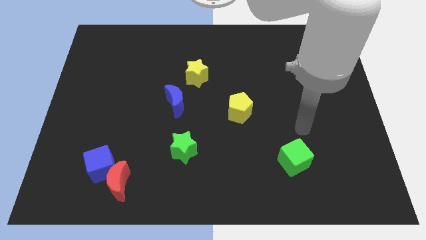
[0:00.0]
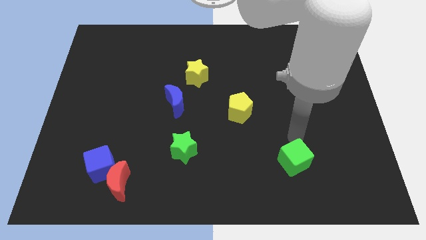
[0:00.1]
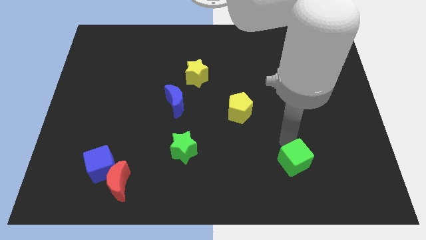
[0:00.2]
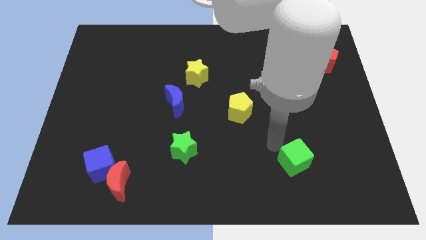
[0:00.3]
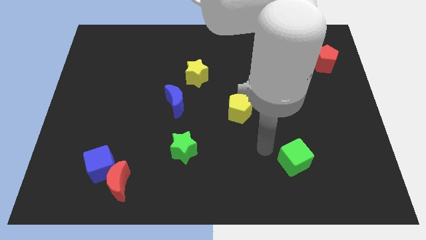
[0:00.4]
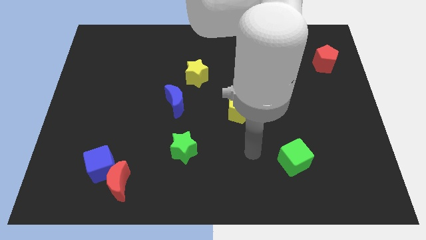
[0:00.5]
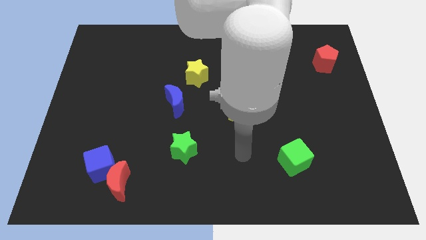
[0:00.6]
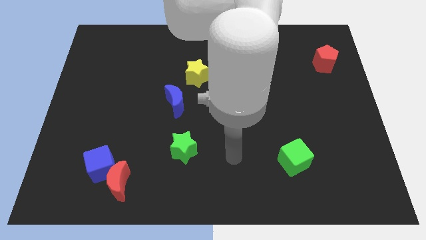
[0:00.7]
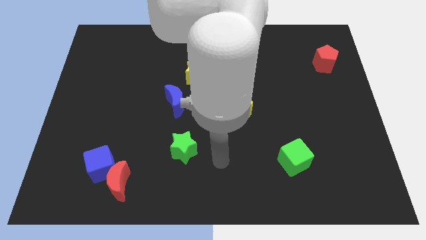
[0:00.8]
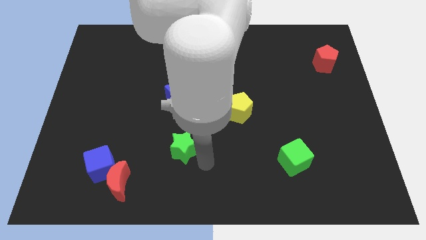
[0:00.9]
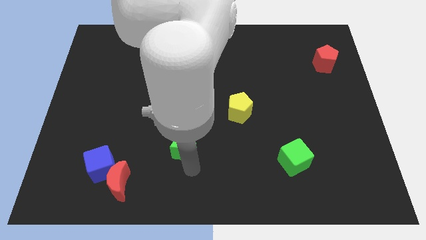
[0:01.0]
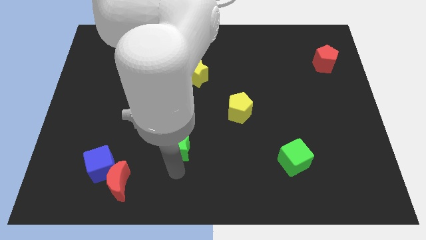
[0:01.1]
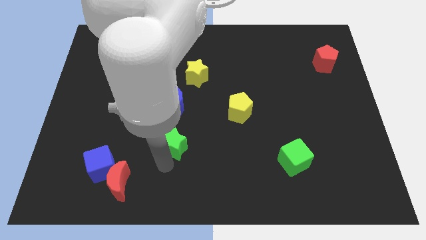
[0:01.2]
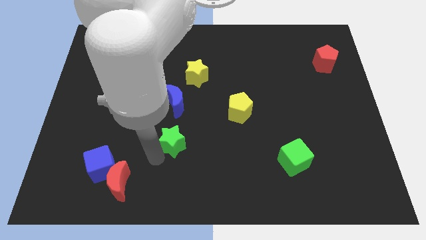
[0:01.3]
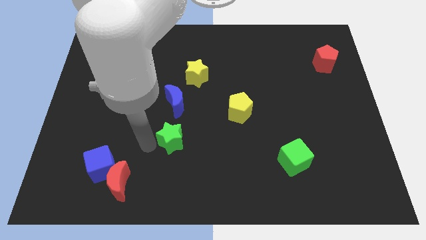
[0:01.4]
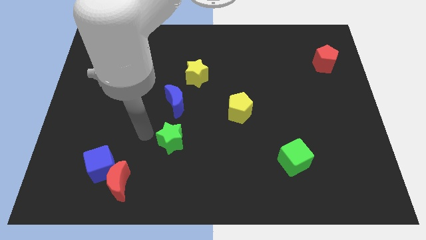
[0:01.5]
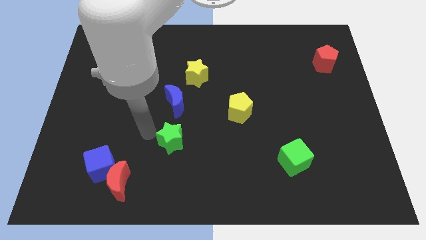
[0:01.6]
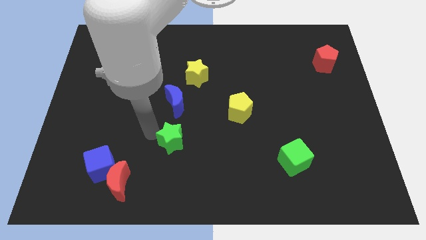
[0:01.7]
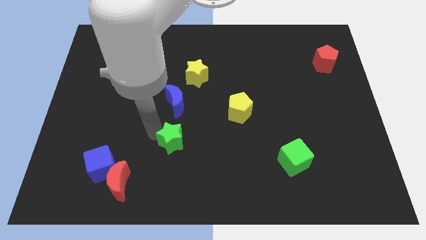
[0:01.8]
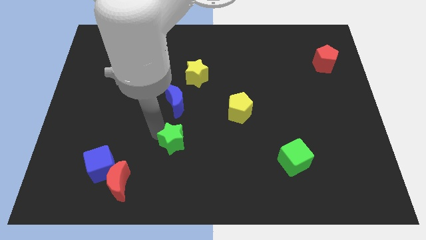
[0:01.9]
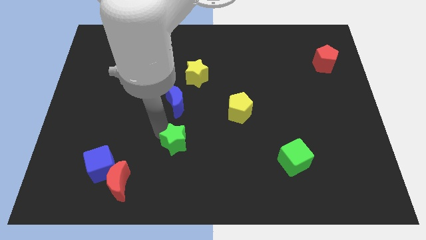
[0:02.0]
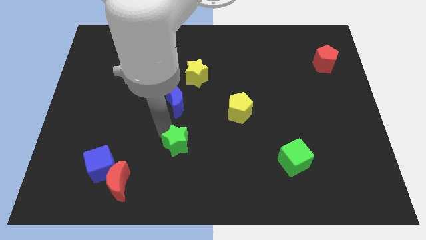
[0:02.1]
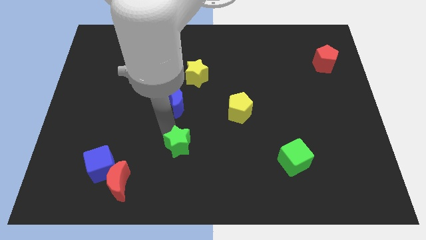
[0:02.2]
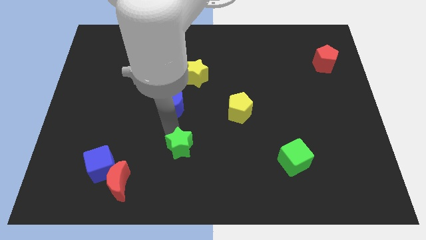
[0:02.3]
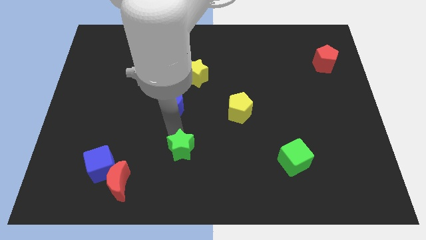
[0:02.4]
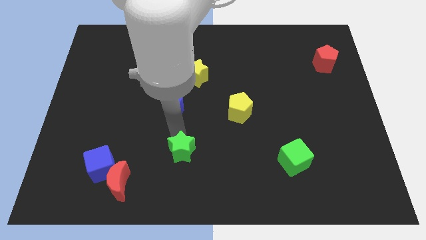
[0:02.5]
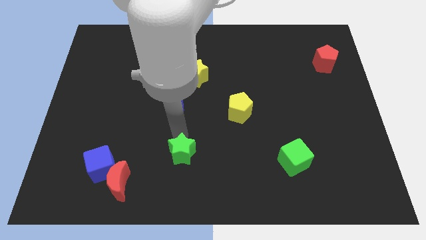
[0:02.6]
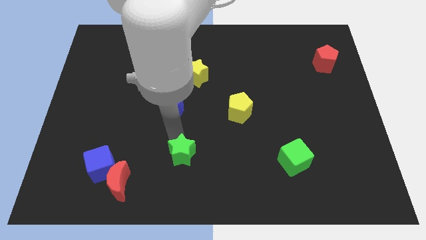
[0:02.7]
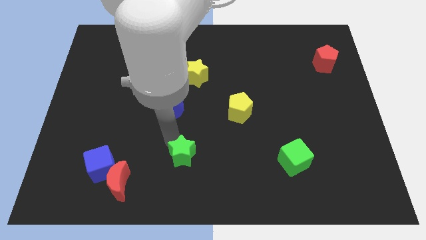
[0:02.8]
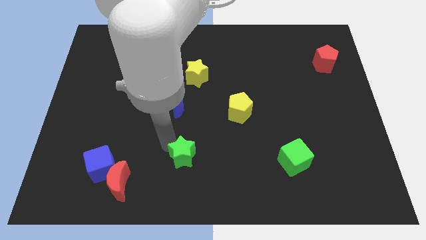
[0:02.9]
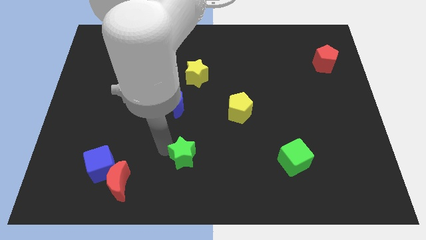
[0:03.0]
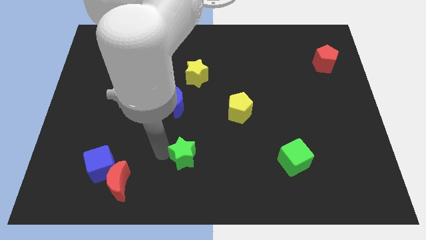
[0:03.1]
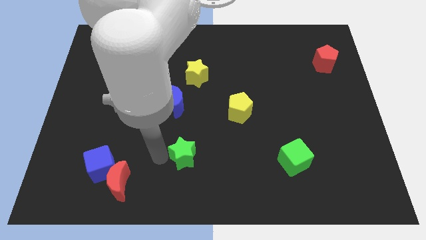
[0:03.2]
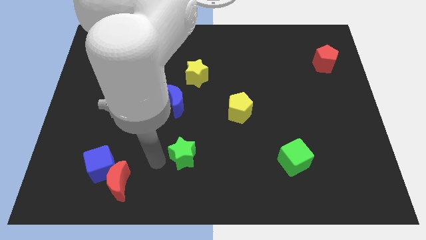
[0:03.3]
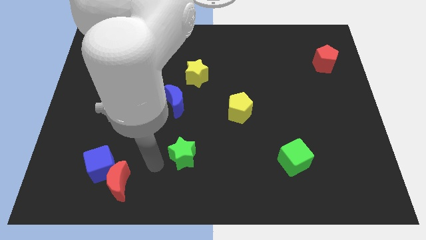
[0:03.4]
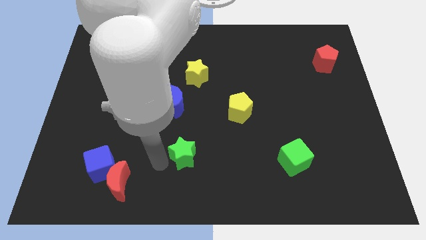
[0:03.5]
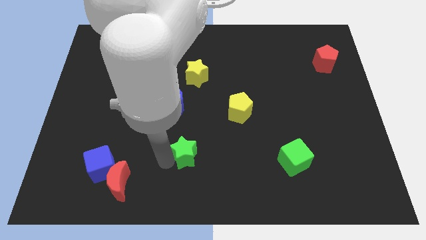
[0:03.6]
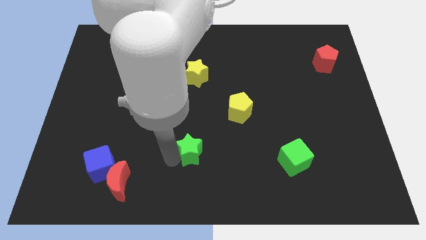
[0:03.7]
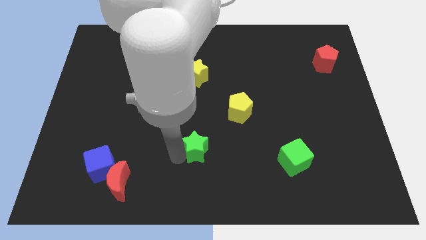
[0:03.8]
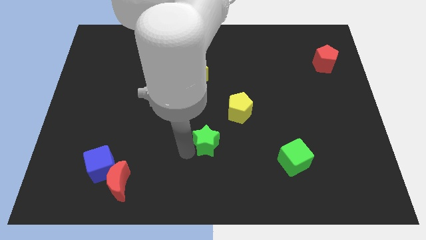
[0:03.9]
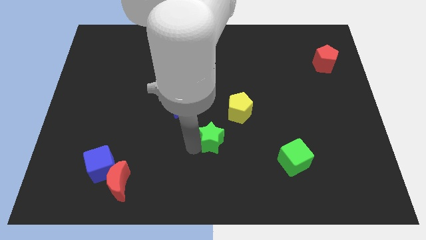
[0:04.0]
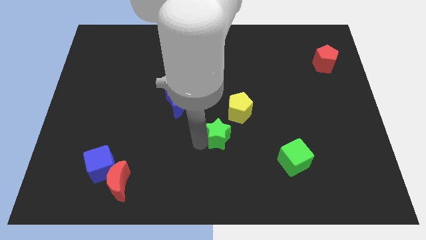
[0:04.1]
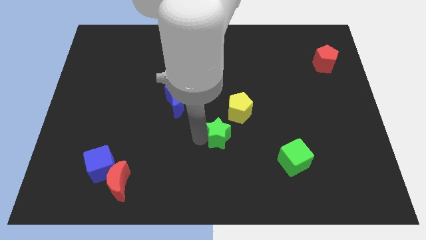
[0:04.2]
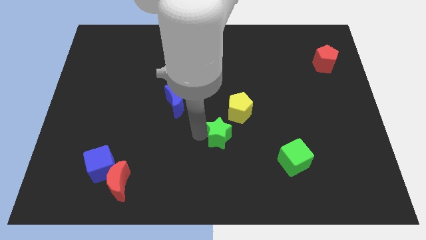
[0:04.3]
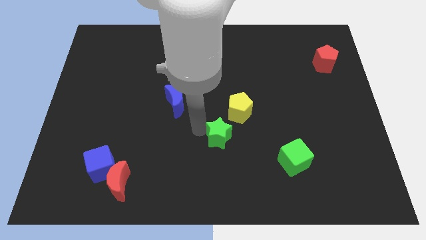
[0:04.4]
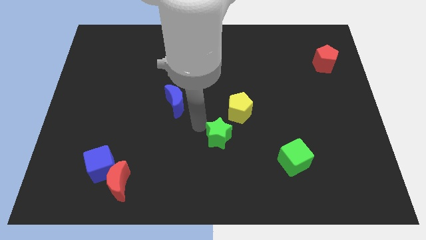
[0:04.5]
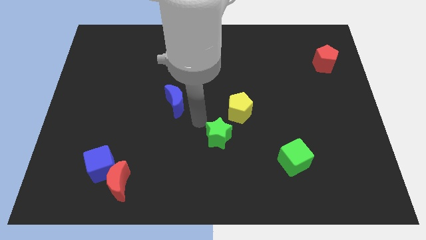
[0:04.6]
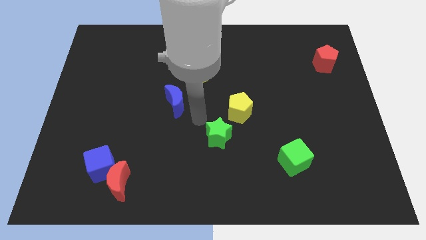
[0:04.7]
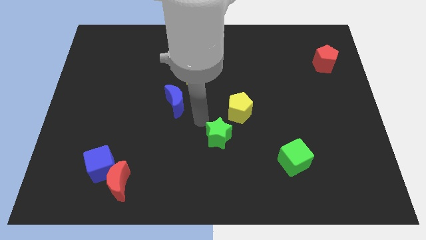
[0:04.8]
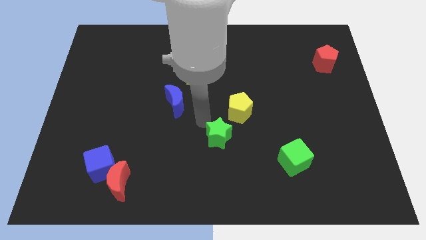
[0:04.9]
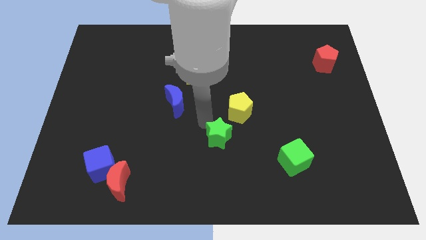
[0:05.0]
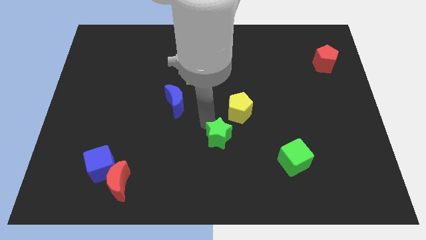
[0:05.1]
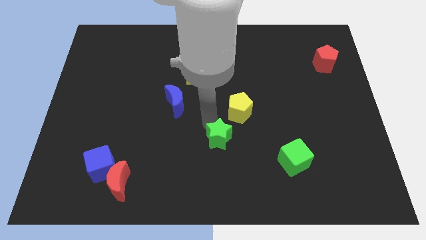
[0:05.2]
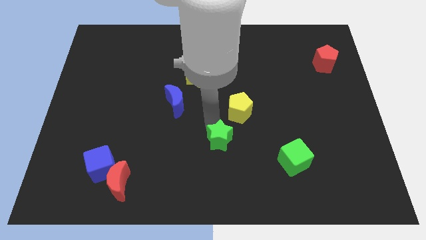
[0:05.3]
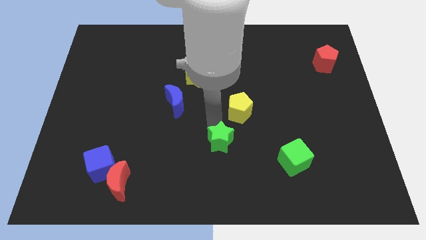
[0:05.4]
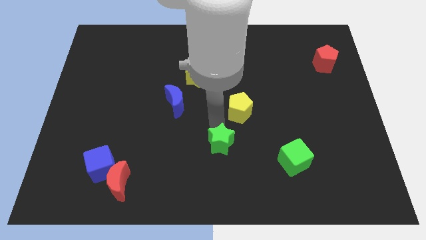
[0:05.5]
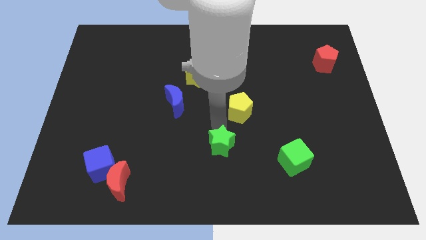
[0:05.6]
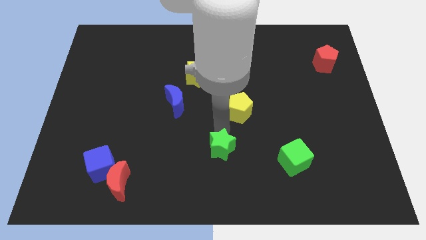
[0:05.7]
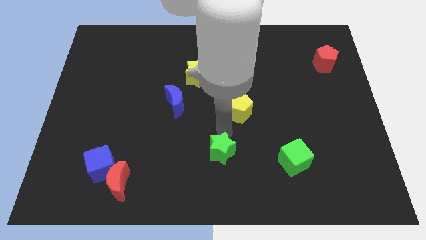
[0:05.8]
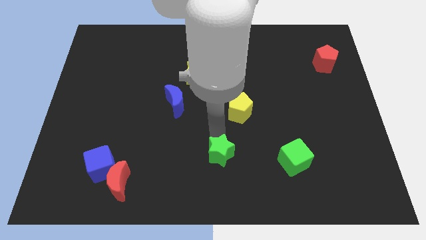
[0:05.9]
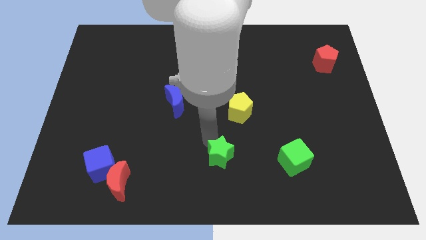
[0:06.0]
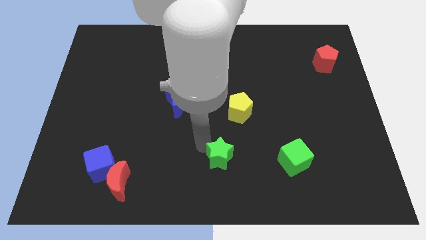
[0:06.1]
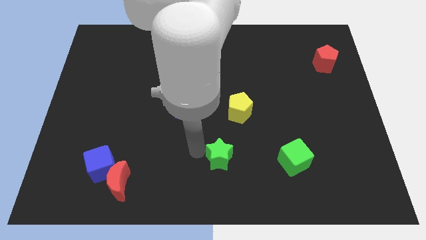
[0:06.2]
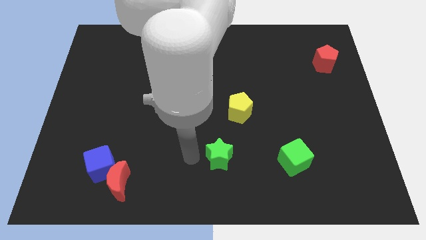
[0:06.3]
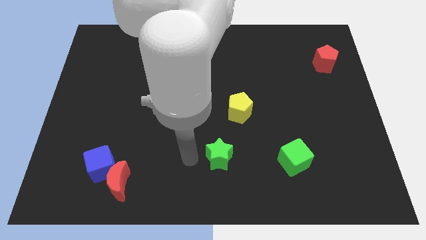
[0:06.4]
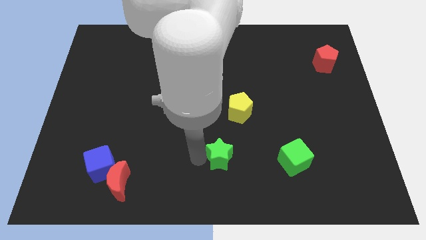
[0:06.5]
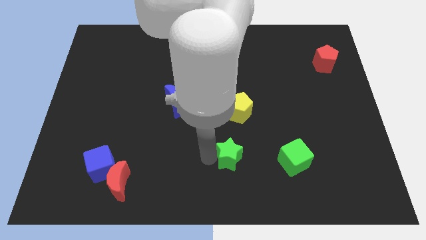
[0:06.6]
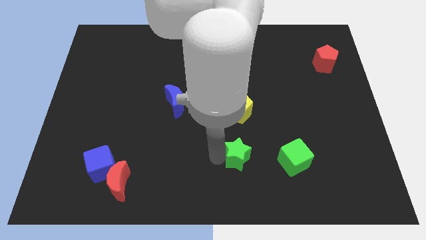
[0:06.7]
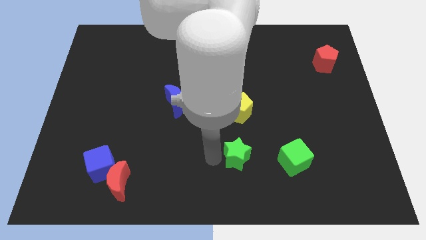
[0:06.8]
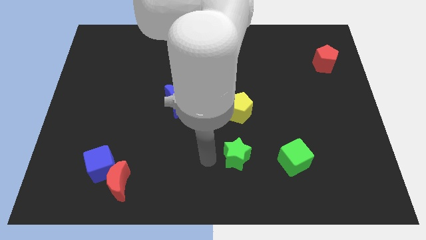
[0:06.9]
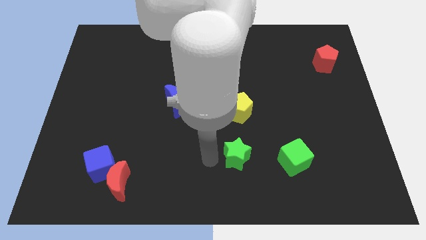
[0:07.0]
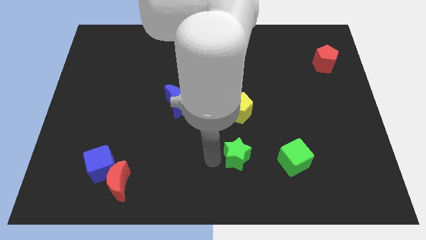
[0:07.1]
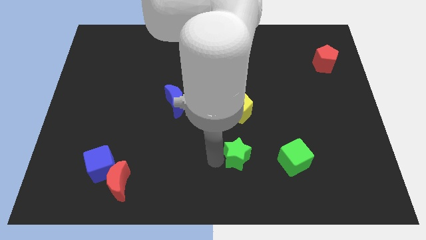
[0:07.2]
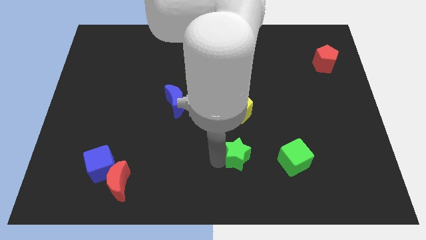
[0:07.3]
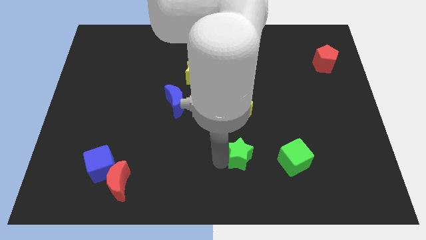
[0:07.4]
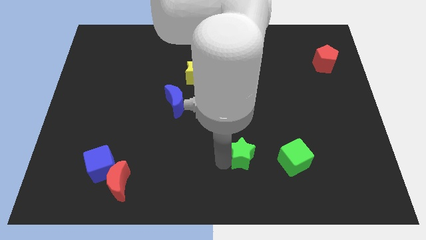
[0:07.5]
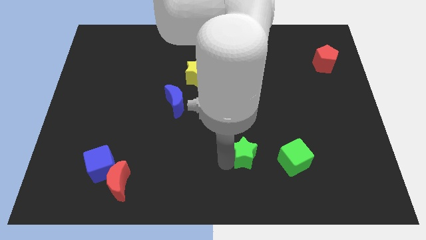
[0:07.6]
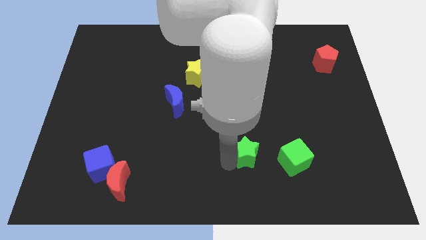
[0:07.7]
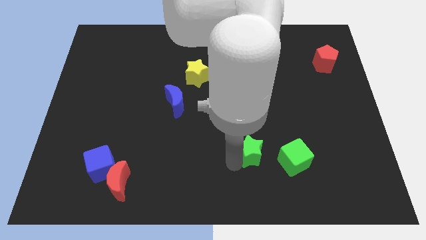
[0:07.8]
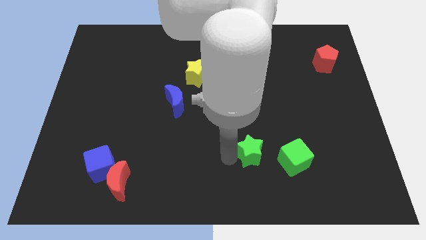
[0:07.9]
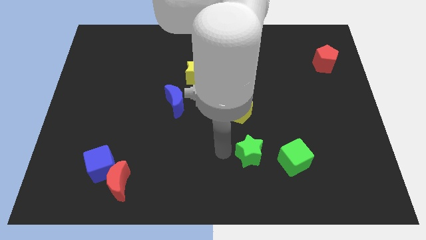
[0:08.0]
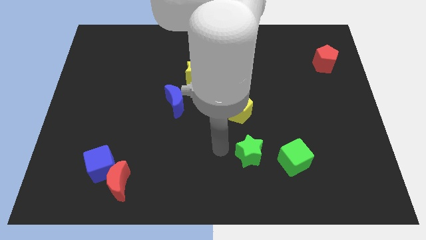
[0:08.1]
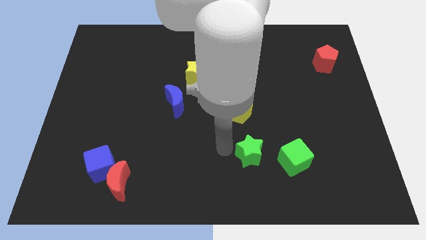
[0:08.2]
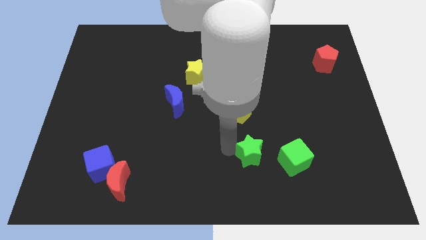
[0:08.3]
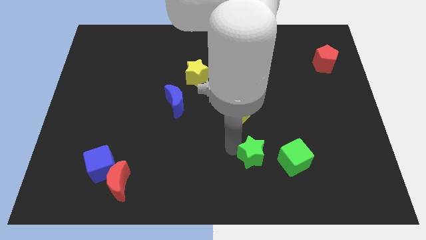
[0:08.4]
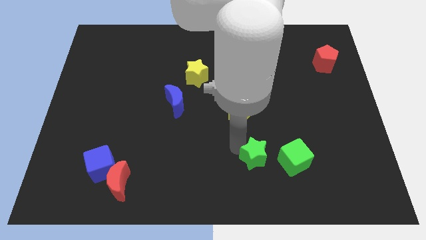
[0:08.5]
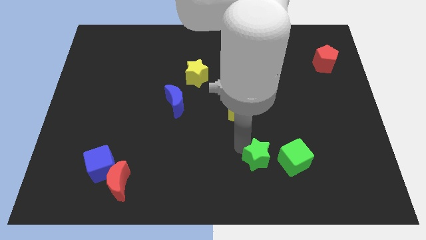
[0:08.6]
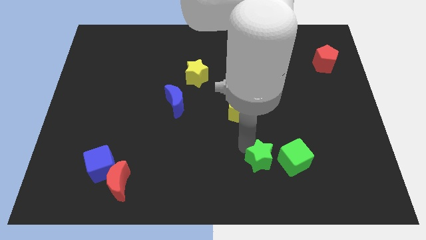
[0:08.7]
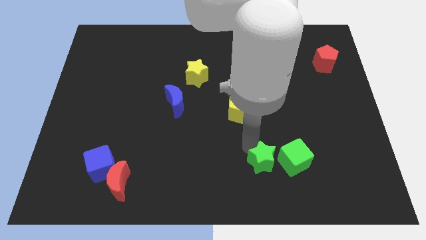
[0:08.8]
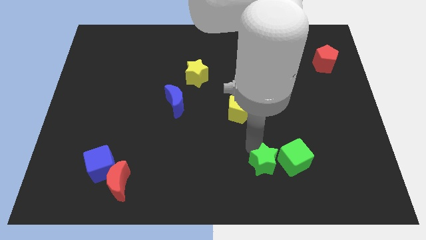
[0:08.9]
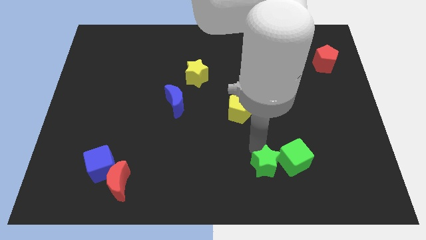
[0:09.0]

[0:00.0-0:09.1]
slide the green star close to the green cube
